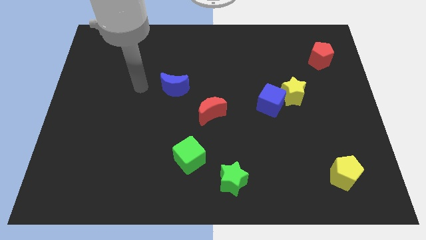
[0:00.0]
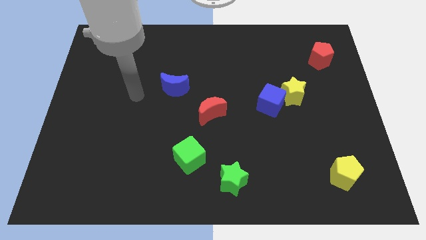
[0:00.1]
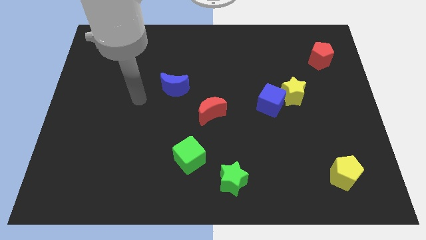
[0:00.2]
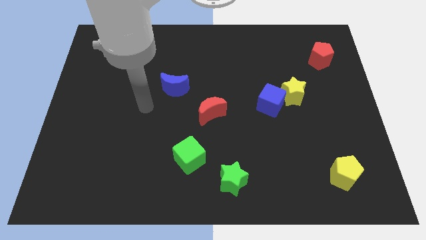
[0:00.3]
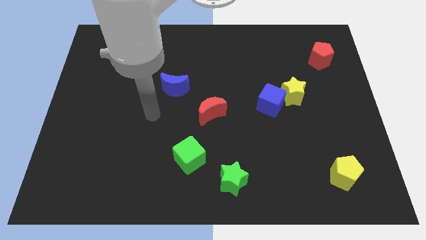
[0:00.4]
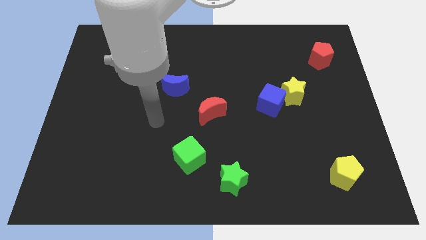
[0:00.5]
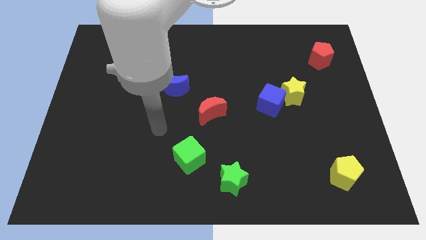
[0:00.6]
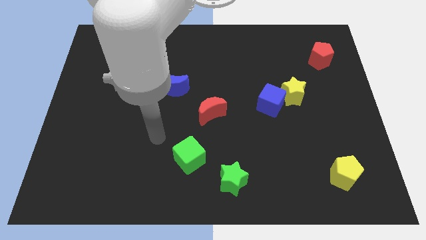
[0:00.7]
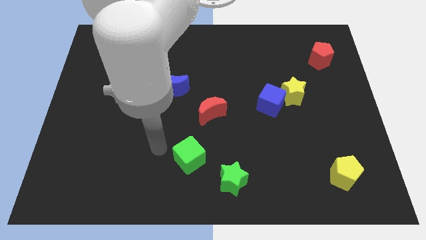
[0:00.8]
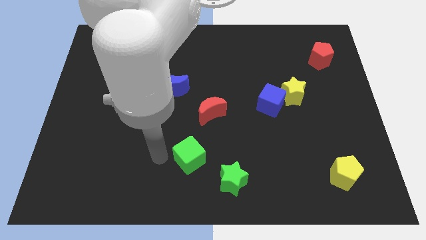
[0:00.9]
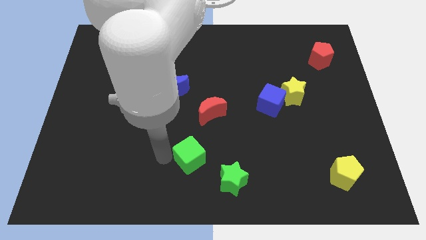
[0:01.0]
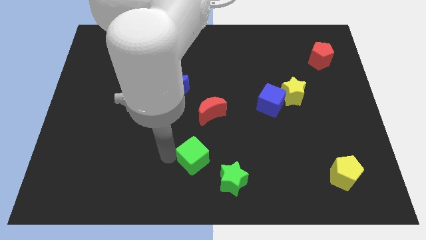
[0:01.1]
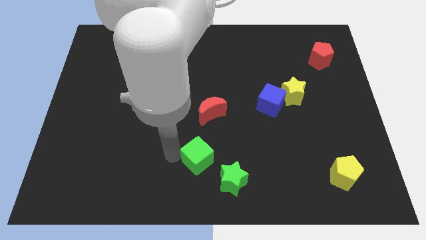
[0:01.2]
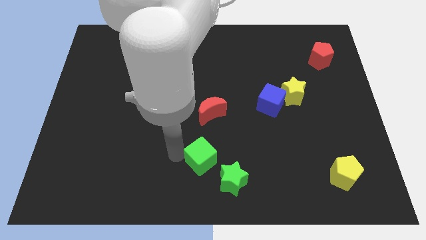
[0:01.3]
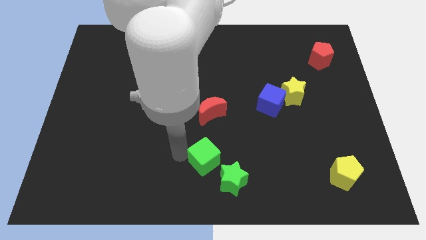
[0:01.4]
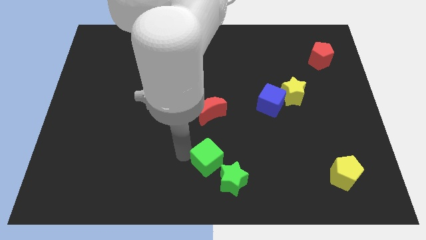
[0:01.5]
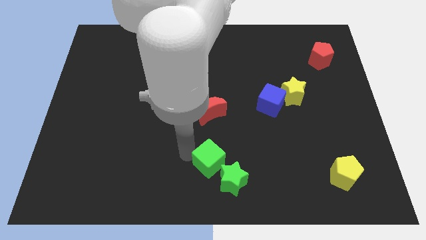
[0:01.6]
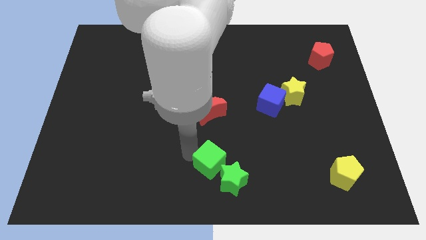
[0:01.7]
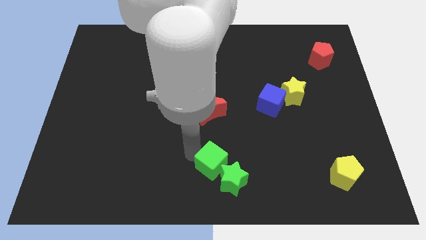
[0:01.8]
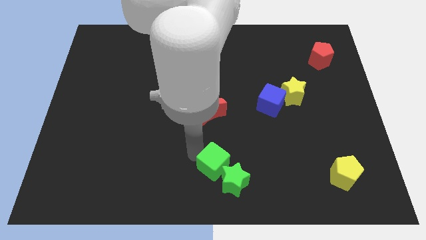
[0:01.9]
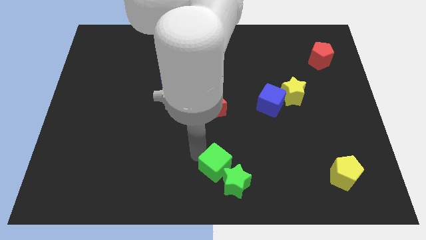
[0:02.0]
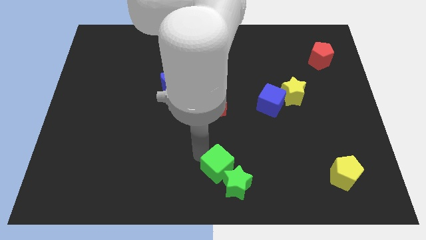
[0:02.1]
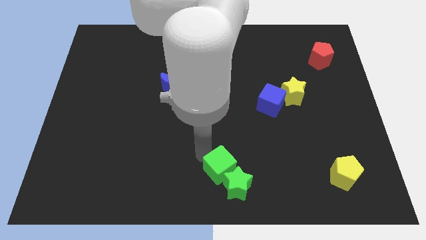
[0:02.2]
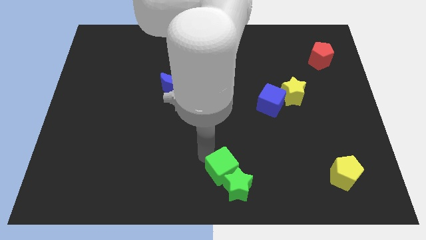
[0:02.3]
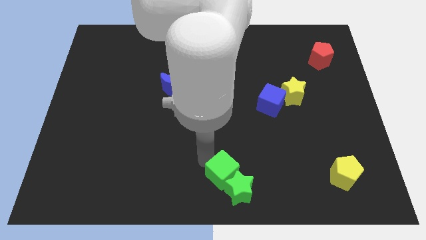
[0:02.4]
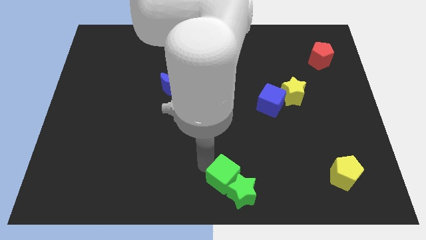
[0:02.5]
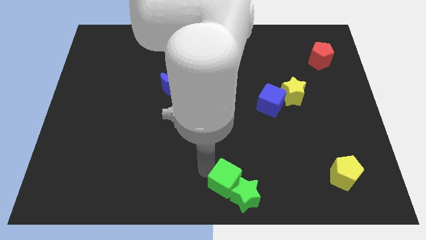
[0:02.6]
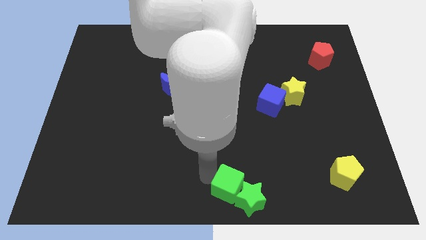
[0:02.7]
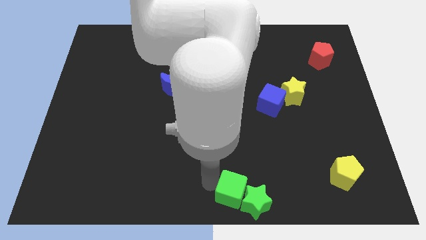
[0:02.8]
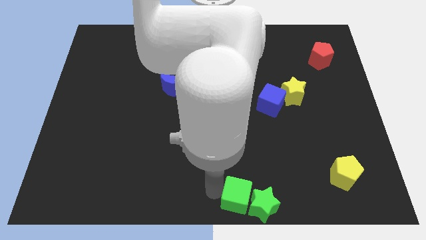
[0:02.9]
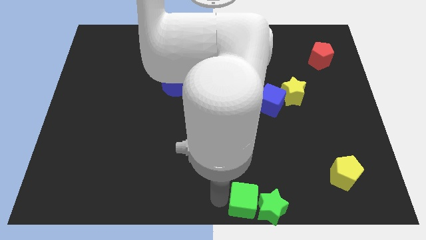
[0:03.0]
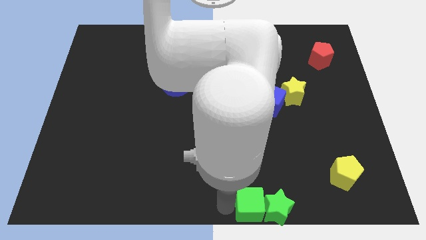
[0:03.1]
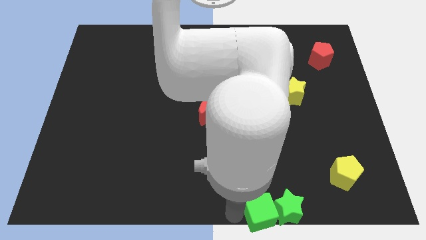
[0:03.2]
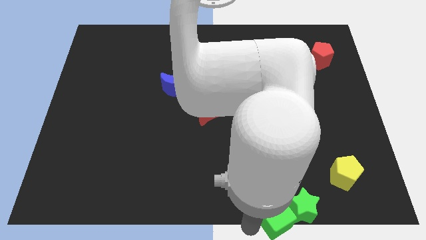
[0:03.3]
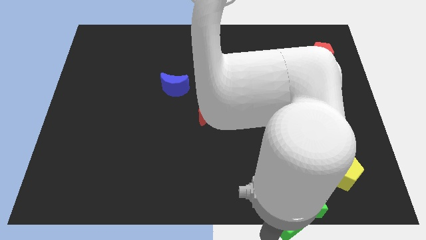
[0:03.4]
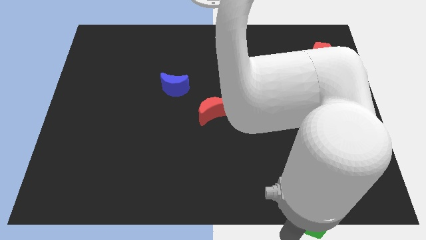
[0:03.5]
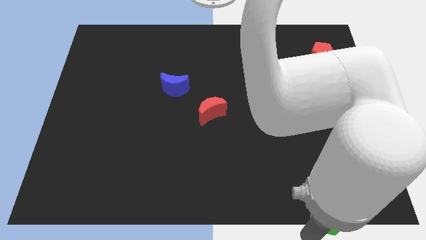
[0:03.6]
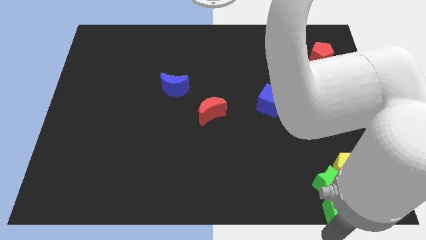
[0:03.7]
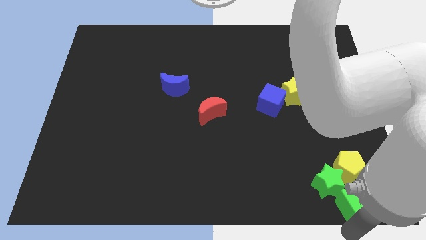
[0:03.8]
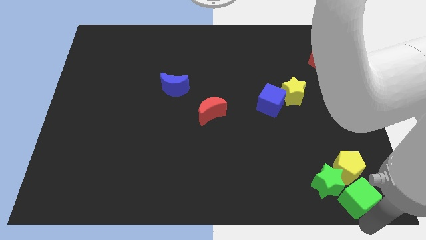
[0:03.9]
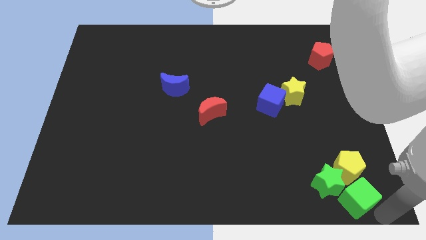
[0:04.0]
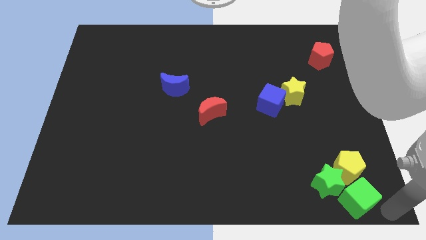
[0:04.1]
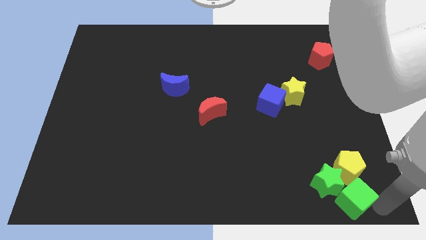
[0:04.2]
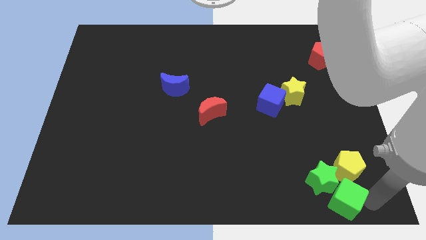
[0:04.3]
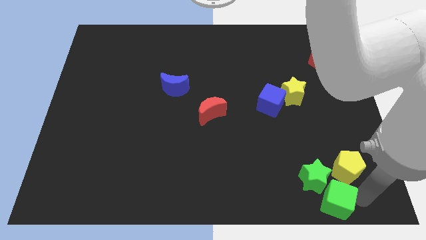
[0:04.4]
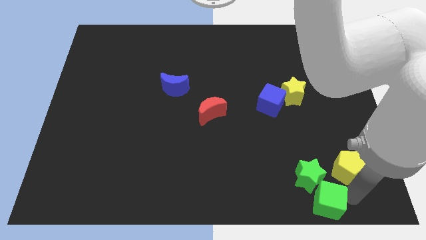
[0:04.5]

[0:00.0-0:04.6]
move the green cube right a little bit

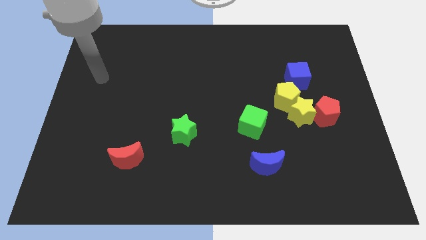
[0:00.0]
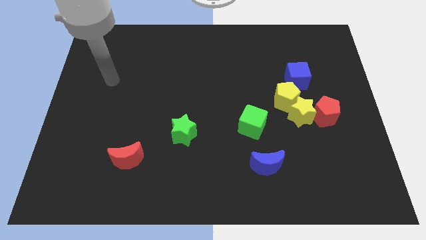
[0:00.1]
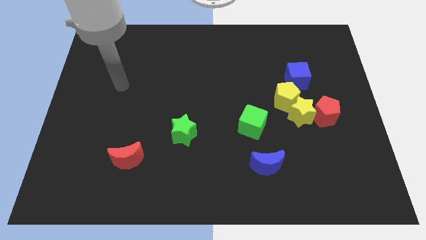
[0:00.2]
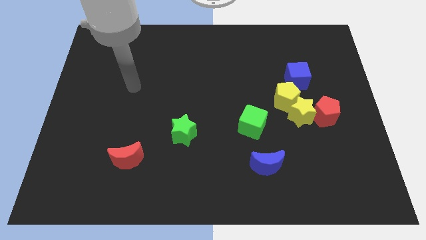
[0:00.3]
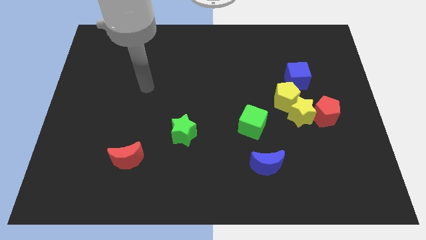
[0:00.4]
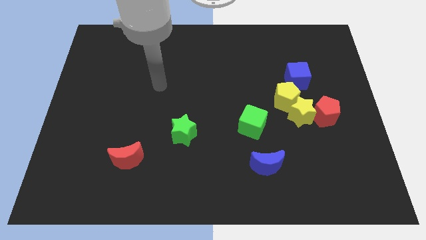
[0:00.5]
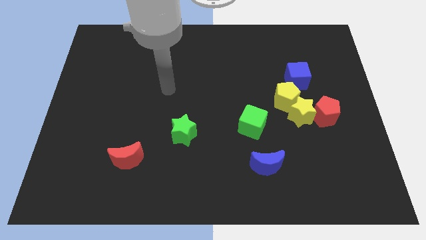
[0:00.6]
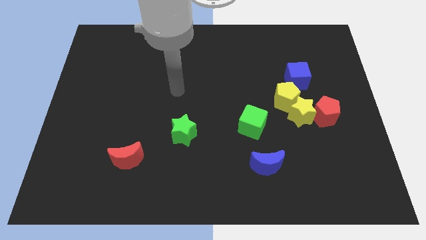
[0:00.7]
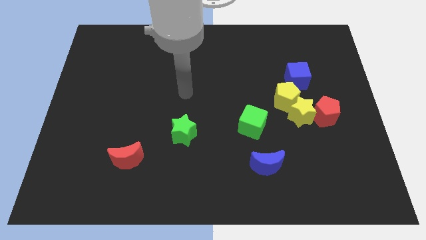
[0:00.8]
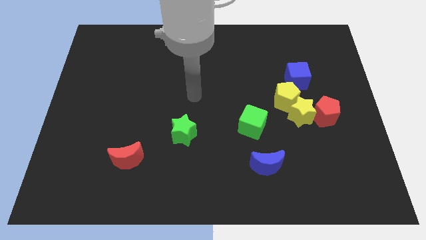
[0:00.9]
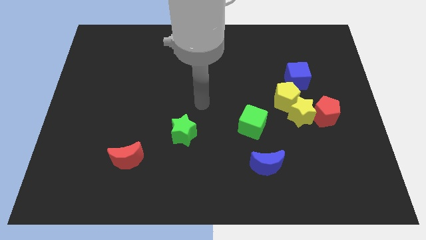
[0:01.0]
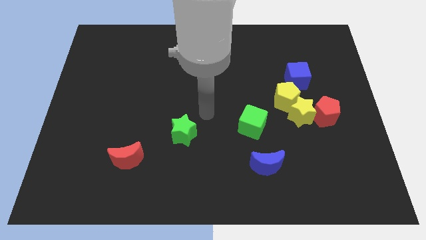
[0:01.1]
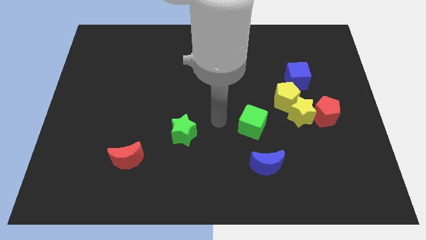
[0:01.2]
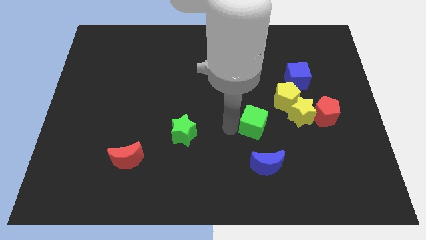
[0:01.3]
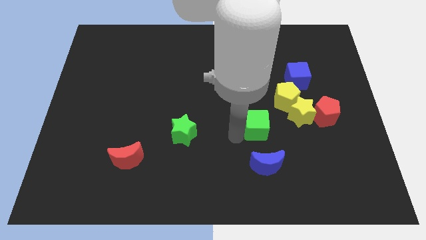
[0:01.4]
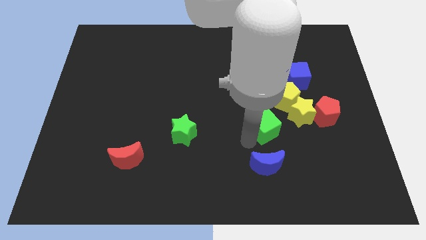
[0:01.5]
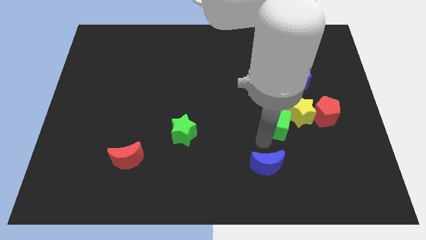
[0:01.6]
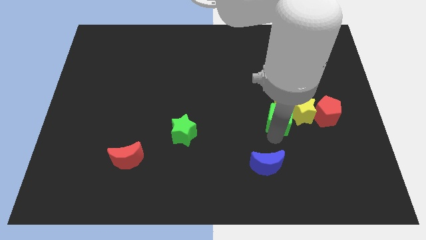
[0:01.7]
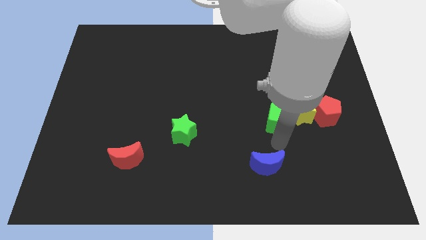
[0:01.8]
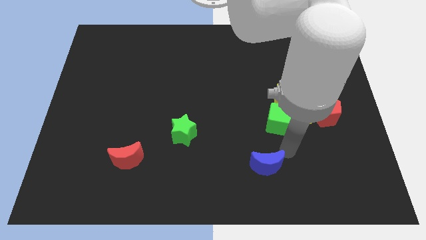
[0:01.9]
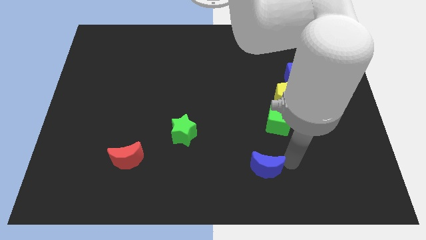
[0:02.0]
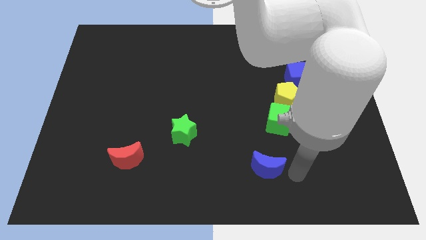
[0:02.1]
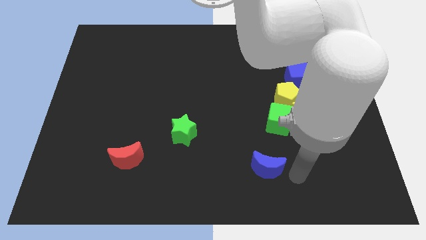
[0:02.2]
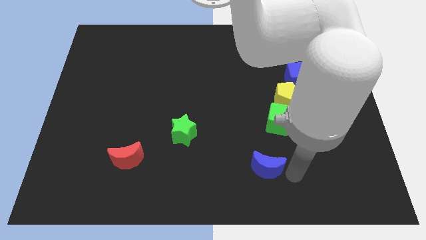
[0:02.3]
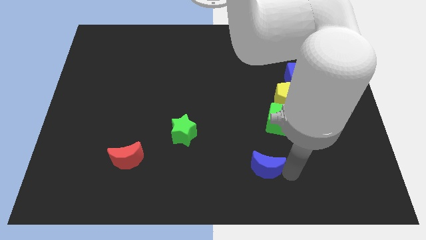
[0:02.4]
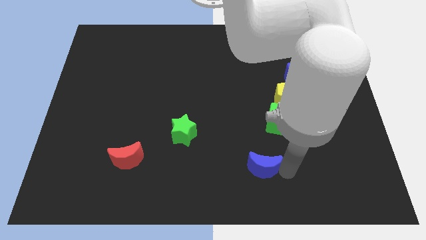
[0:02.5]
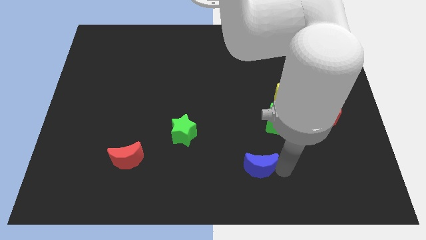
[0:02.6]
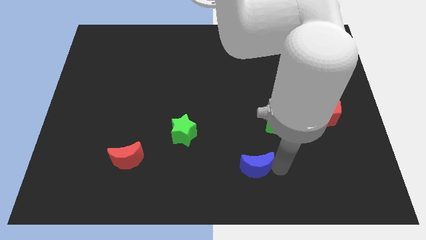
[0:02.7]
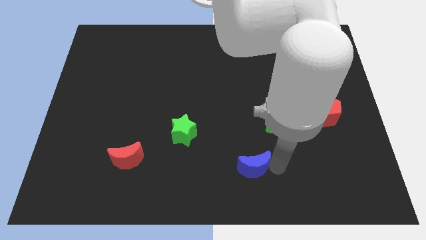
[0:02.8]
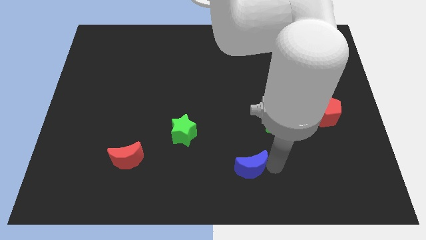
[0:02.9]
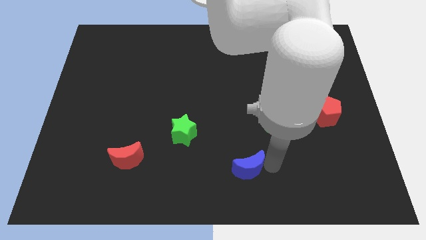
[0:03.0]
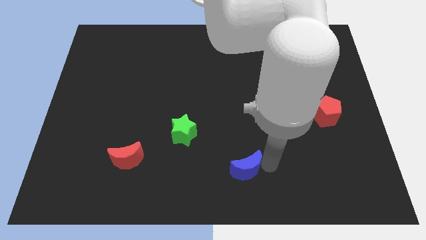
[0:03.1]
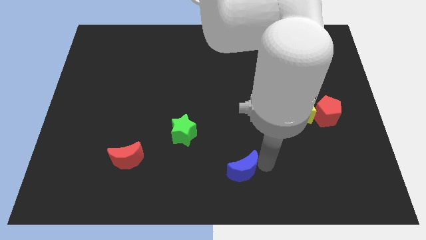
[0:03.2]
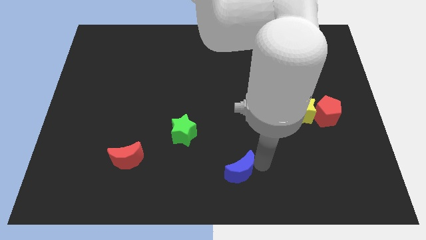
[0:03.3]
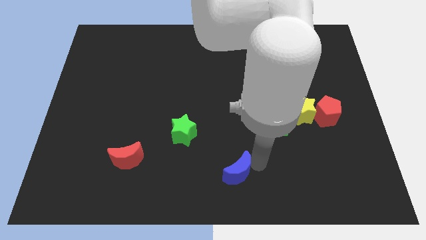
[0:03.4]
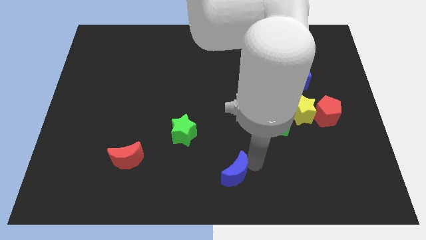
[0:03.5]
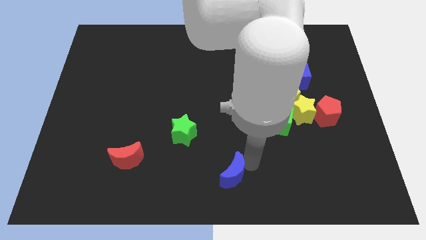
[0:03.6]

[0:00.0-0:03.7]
slightly move the blue moon to the left
